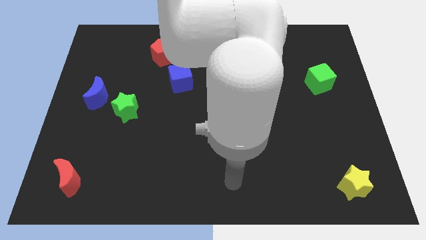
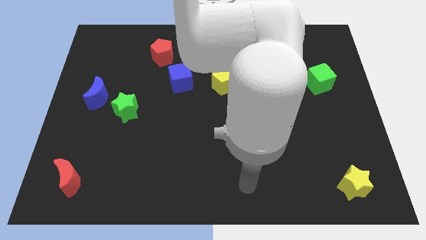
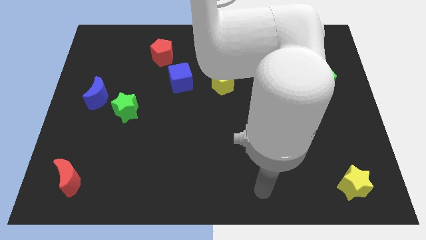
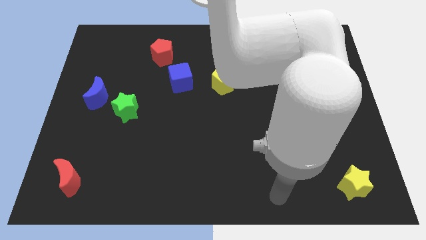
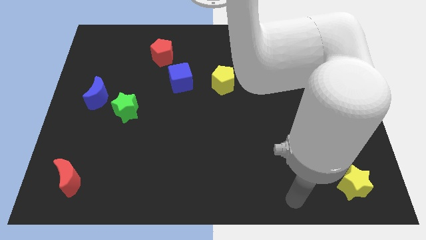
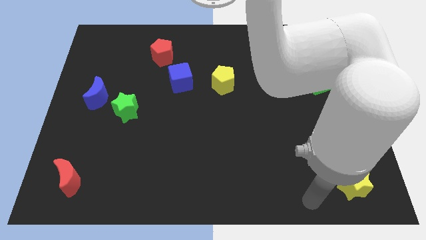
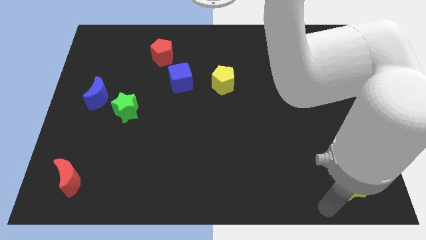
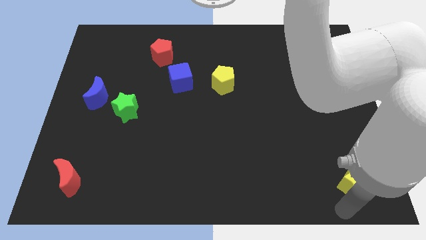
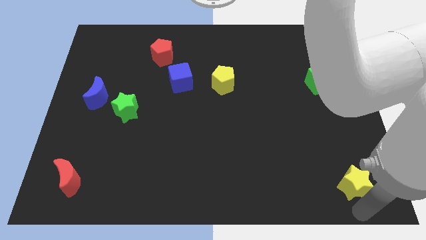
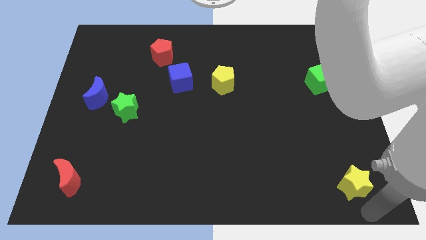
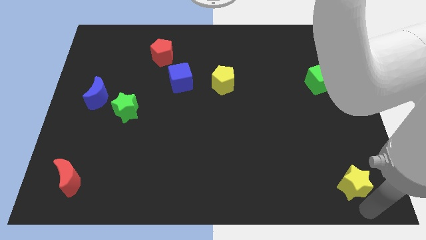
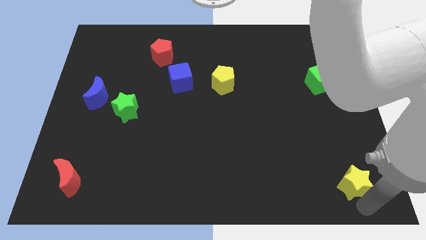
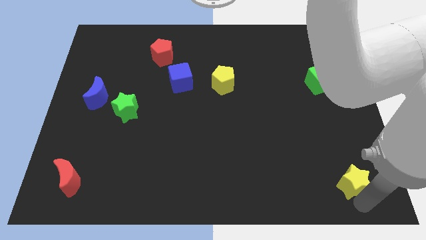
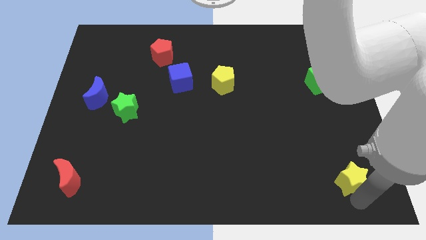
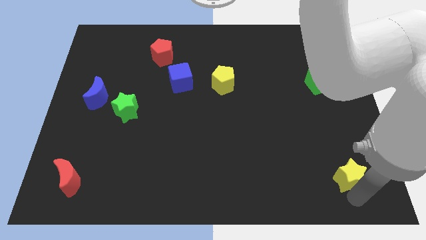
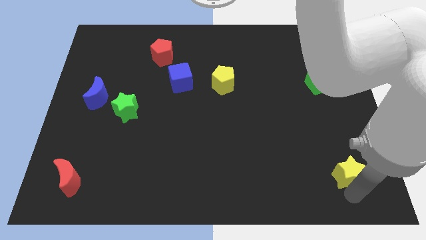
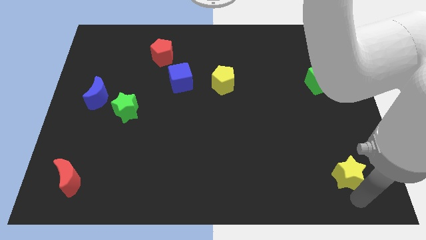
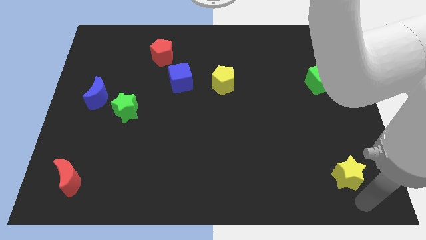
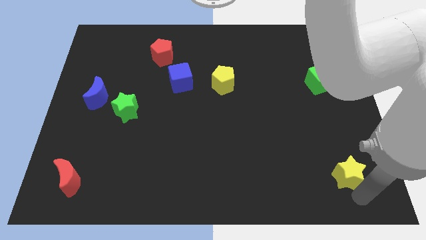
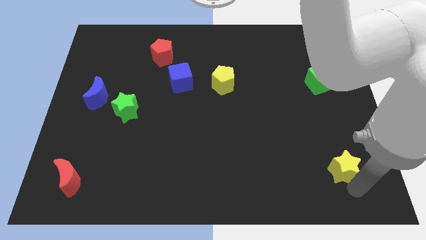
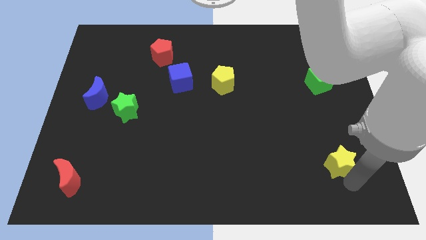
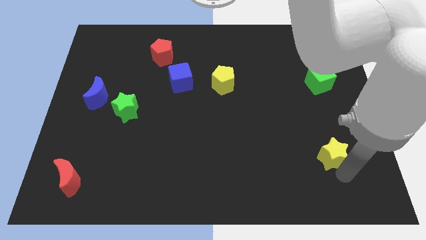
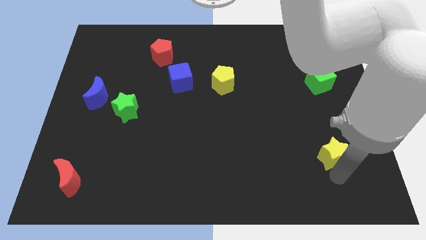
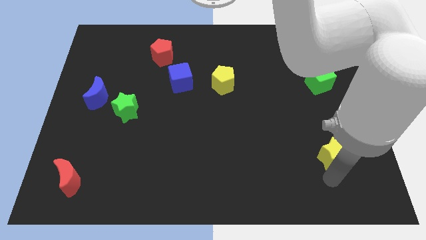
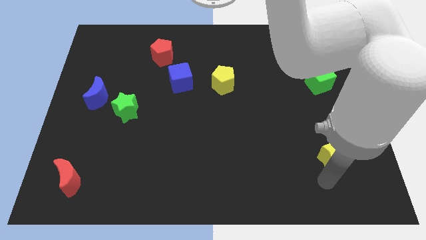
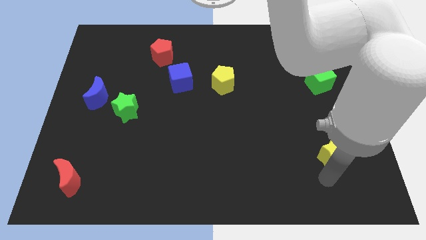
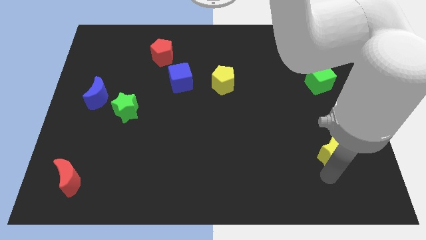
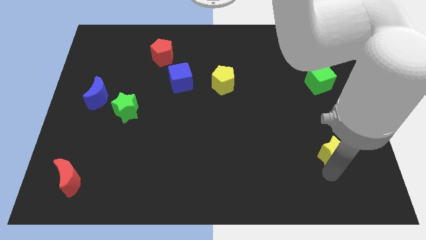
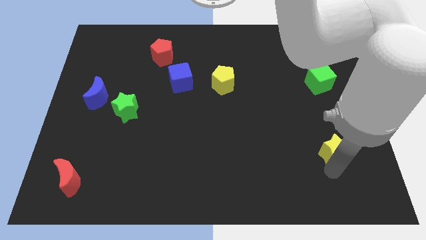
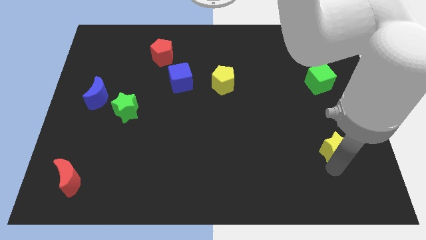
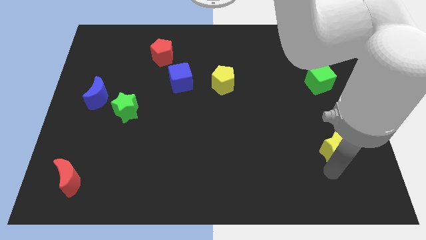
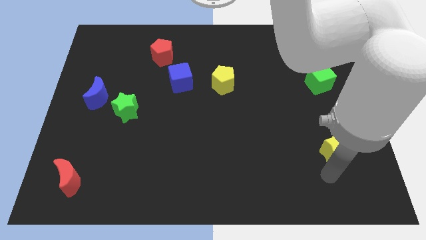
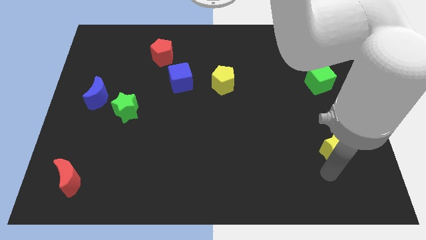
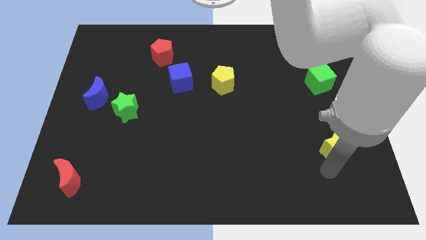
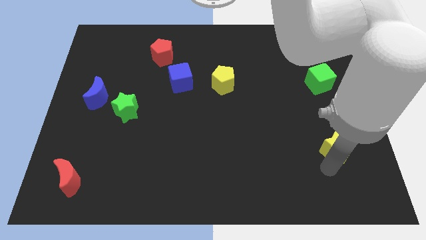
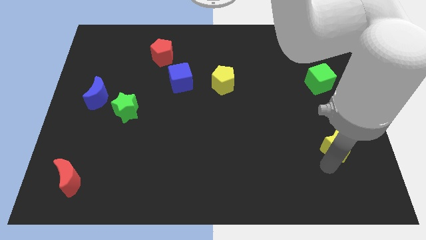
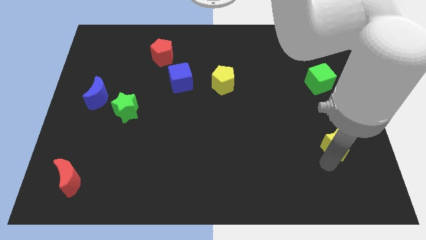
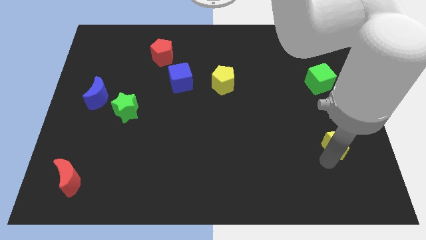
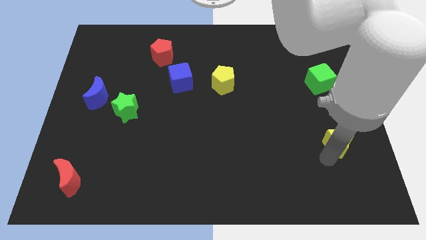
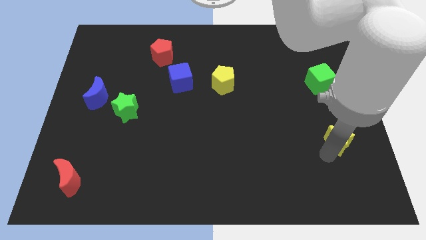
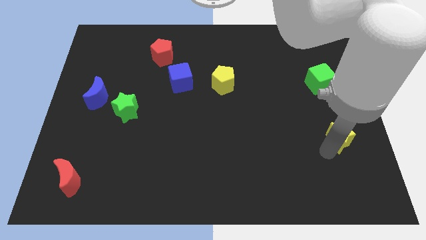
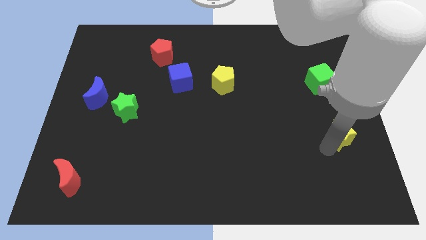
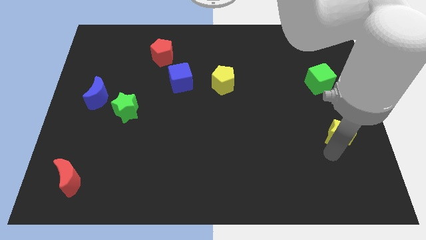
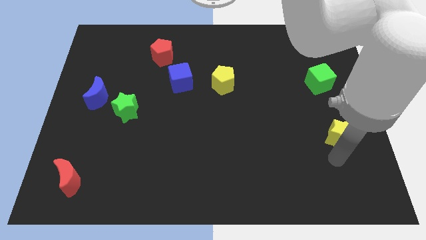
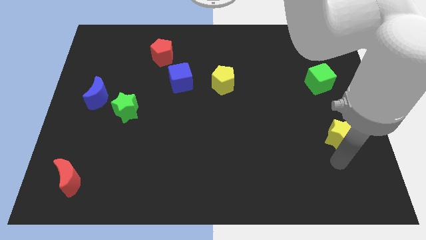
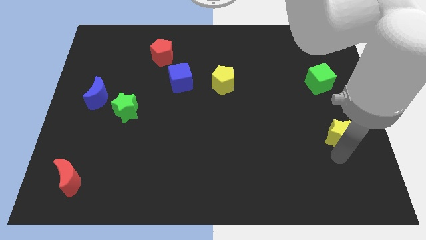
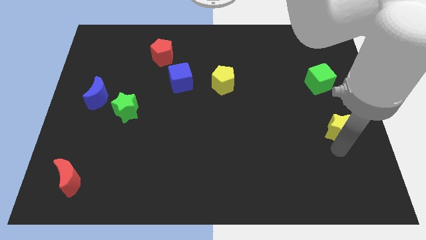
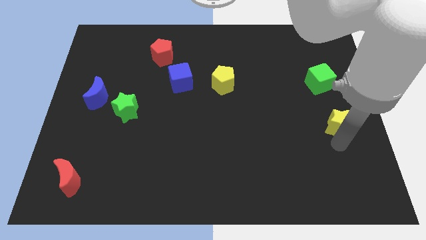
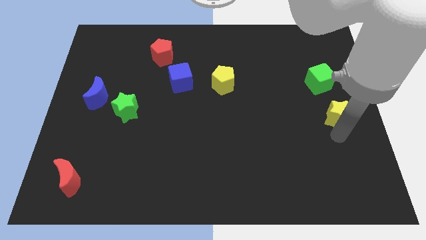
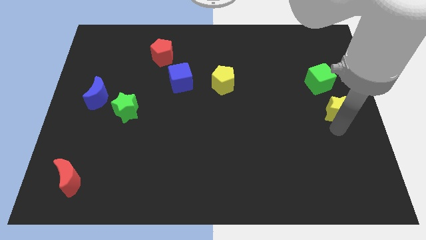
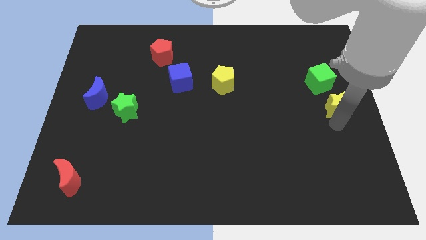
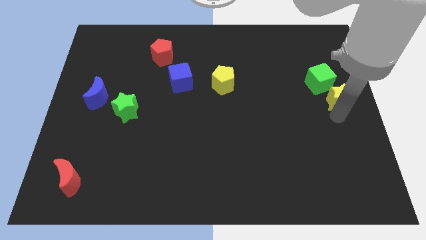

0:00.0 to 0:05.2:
slide the yellow star upwards

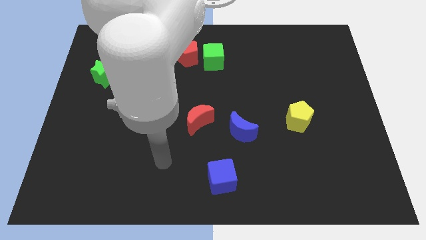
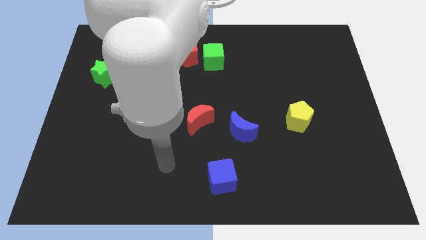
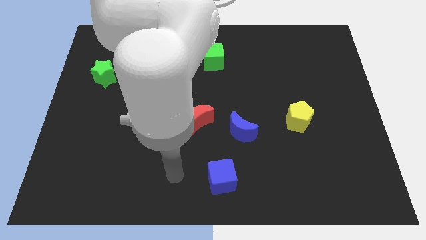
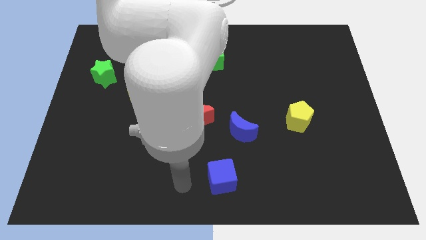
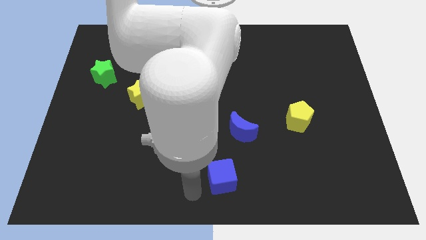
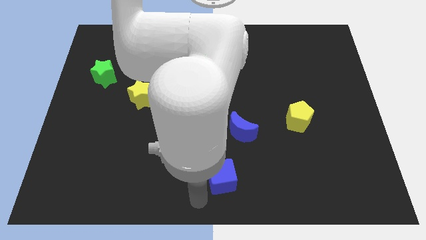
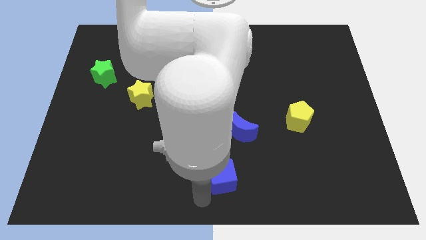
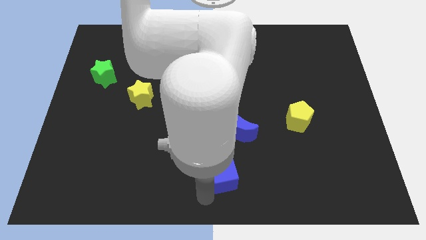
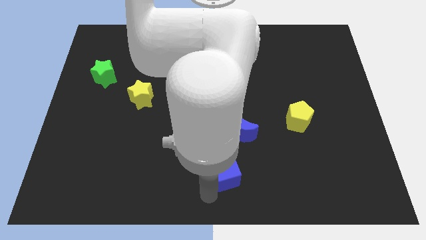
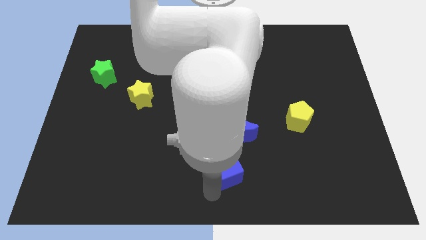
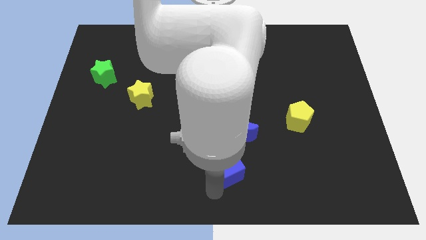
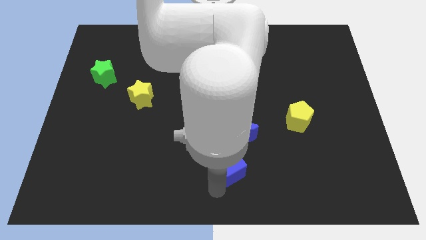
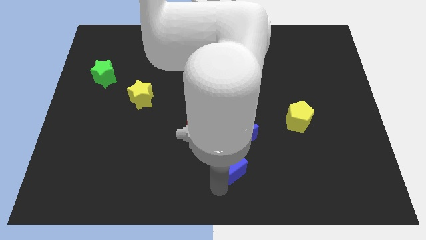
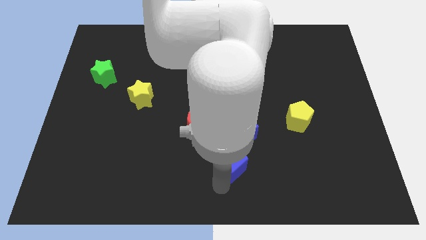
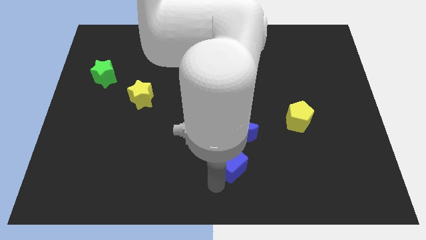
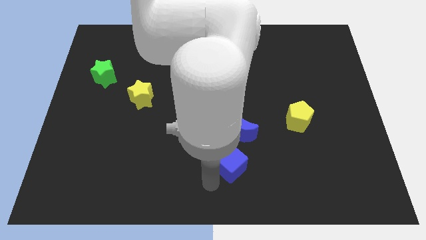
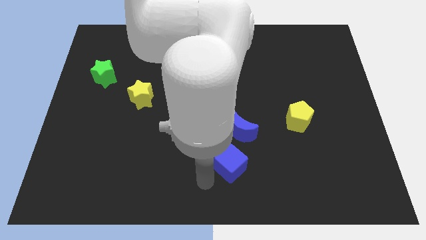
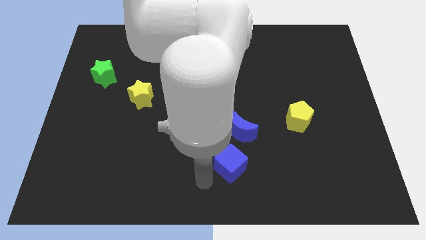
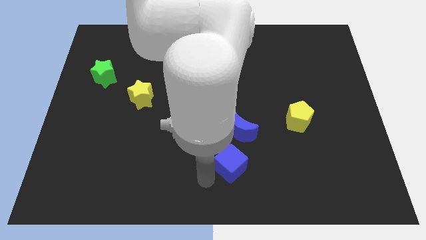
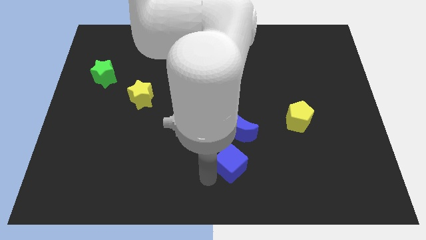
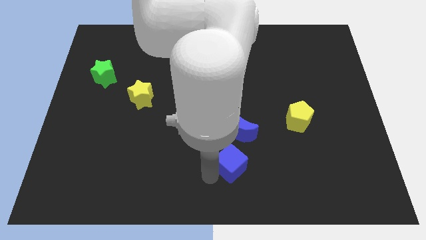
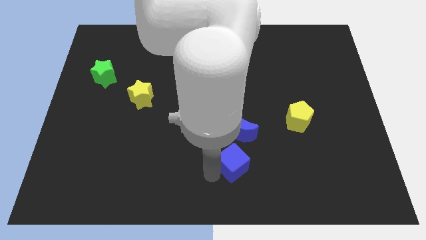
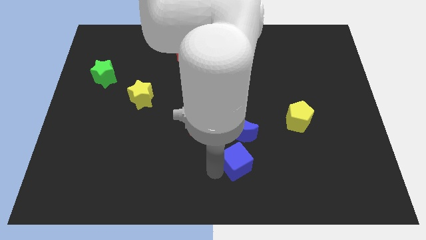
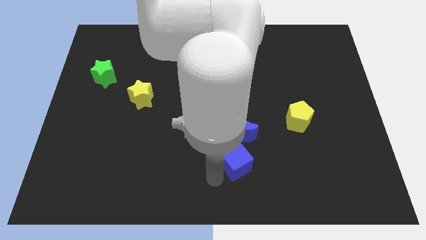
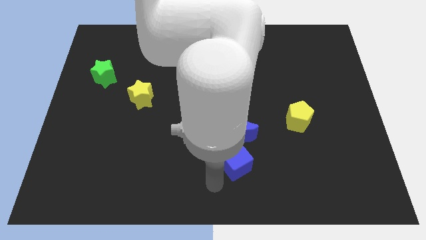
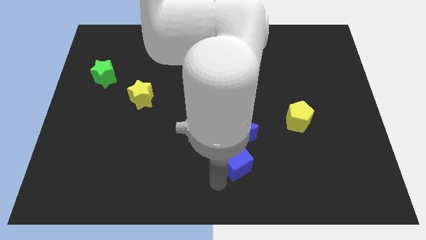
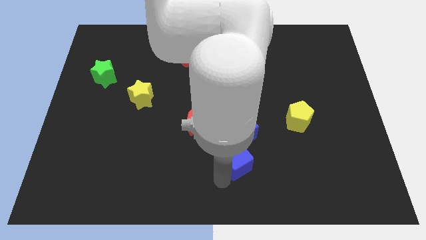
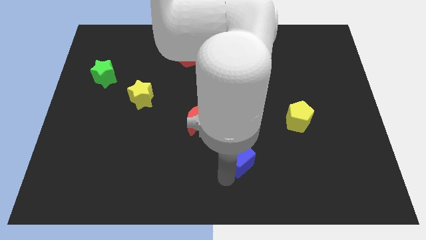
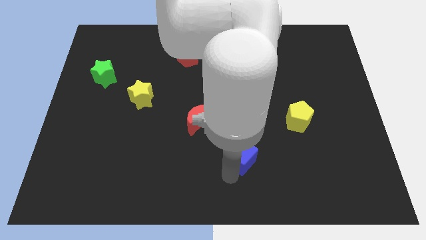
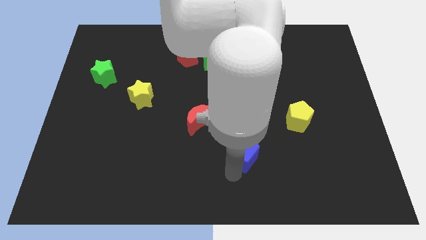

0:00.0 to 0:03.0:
move the blue cube a little bit up and then to the right
